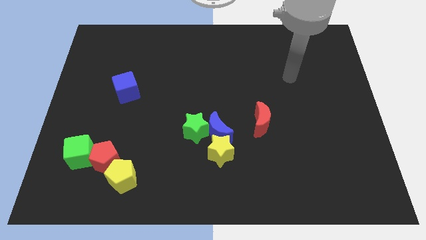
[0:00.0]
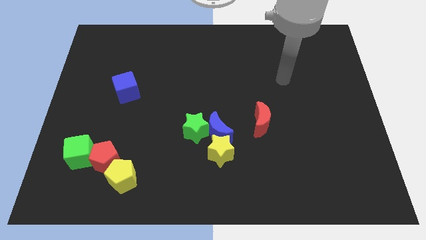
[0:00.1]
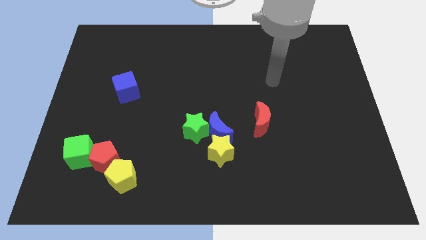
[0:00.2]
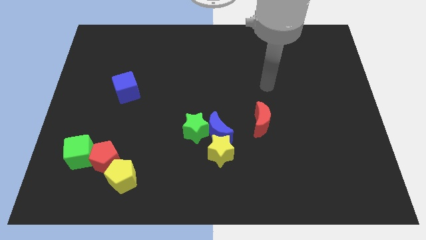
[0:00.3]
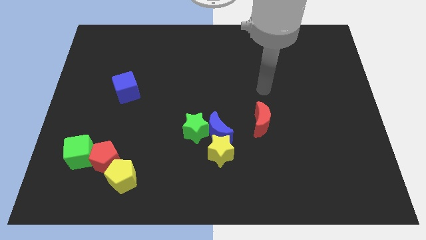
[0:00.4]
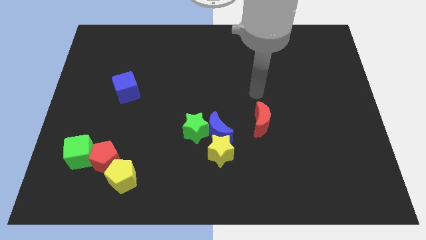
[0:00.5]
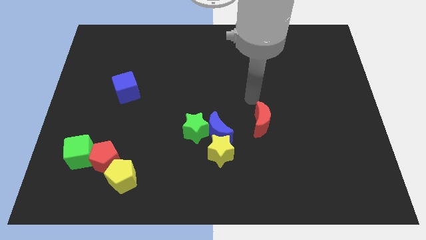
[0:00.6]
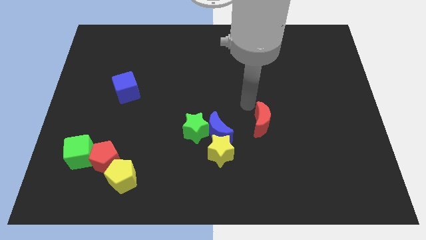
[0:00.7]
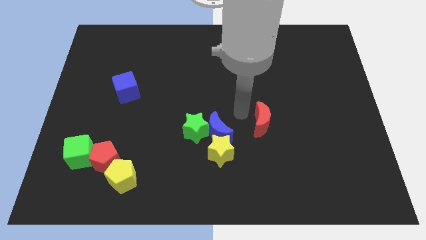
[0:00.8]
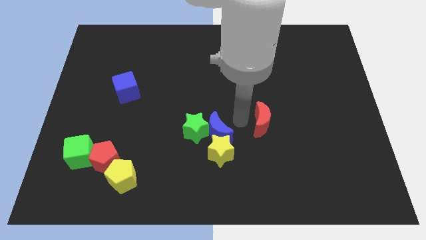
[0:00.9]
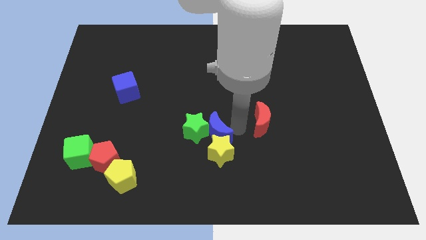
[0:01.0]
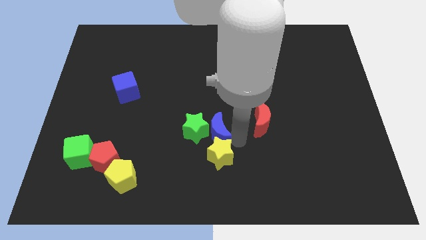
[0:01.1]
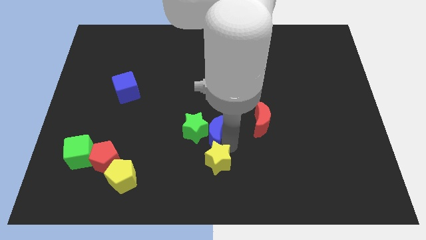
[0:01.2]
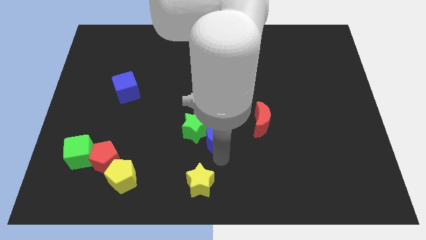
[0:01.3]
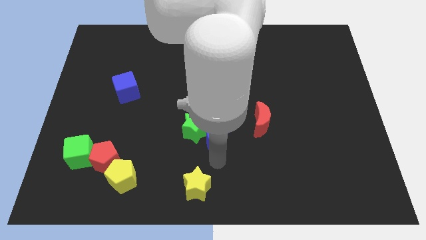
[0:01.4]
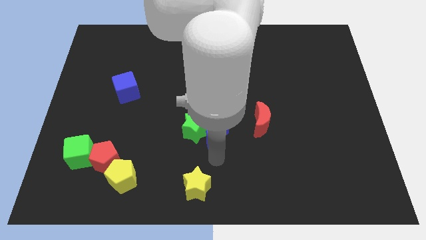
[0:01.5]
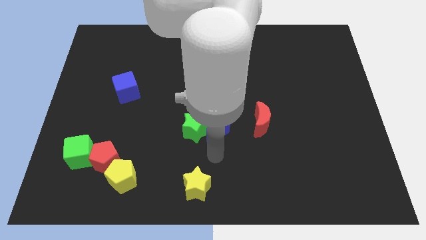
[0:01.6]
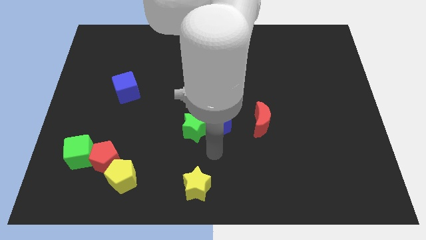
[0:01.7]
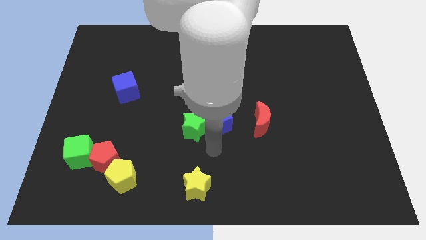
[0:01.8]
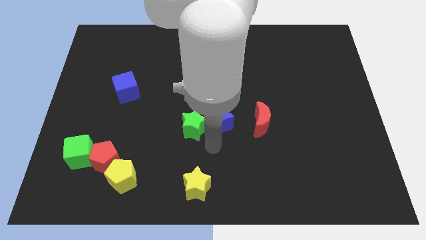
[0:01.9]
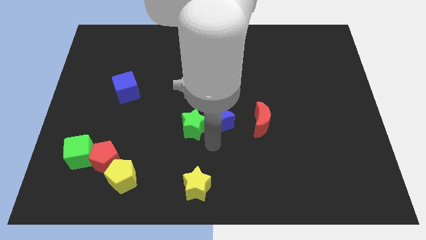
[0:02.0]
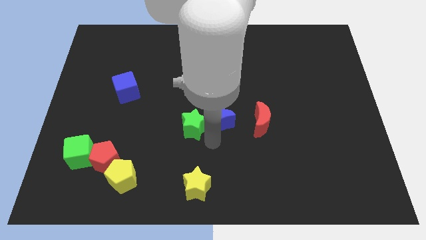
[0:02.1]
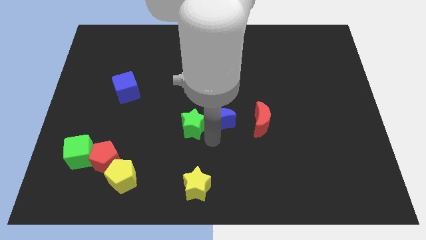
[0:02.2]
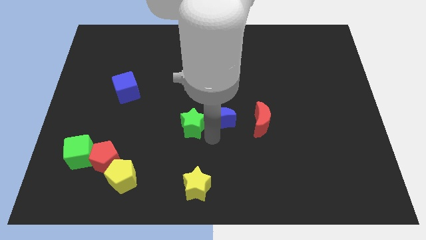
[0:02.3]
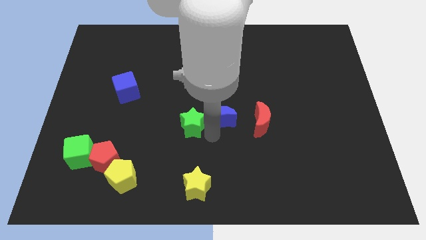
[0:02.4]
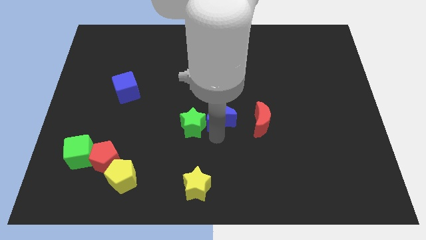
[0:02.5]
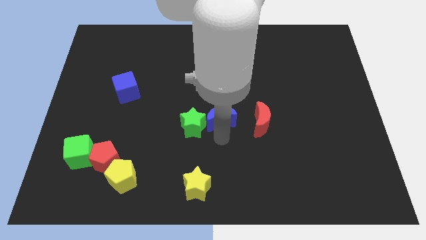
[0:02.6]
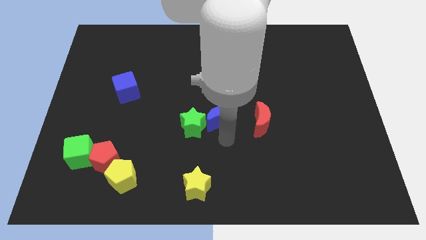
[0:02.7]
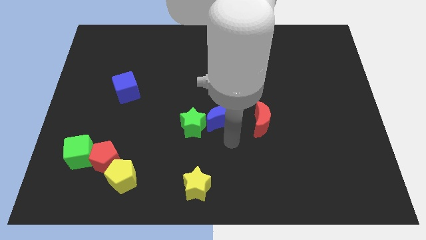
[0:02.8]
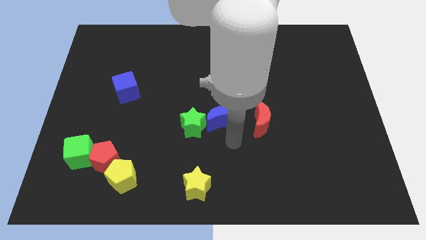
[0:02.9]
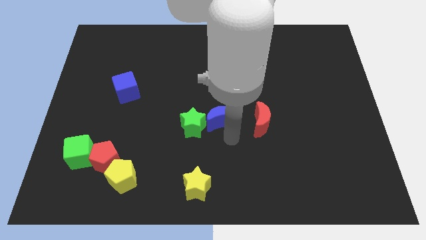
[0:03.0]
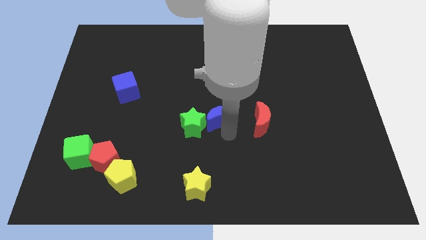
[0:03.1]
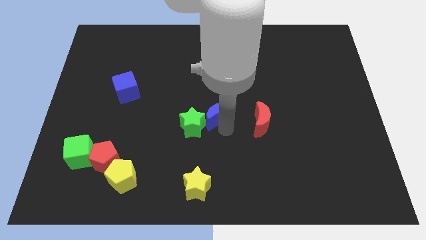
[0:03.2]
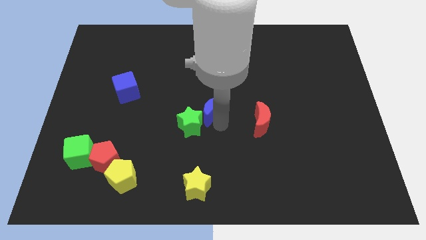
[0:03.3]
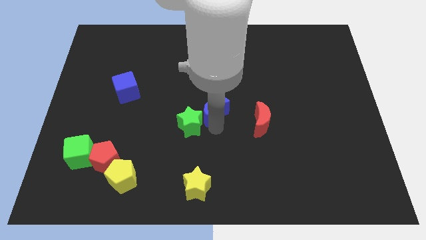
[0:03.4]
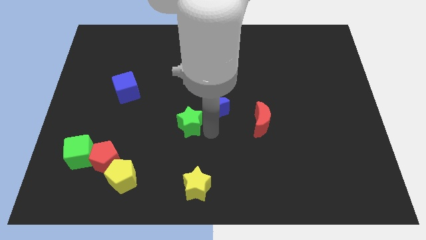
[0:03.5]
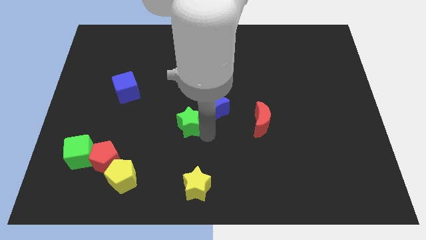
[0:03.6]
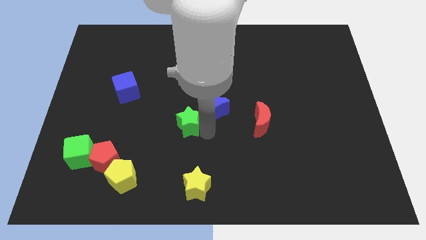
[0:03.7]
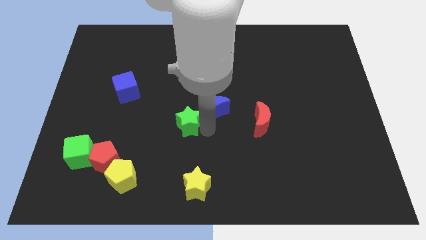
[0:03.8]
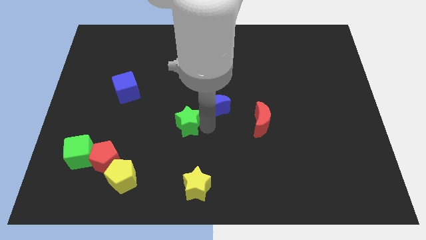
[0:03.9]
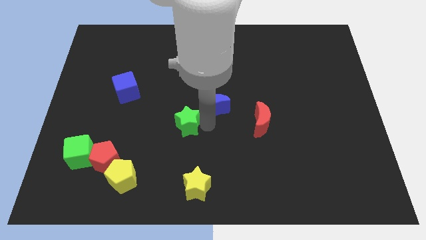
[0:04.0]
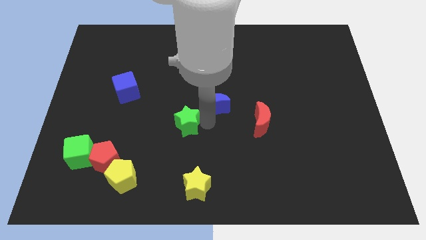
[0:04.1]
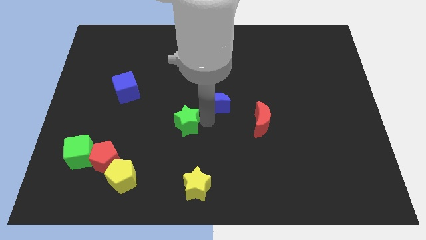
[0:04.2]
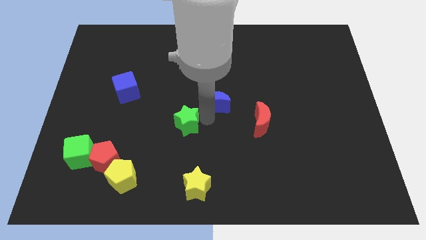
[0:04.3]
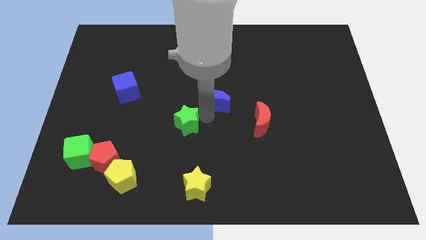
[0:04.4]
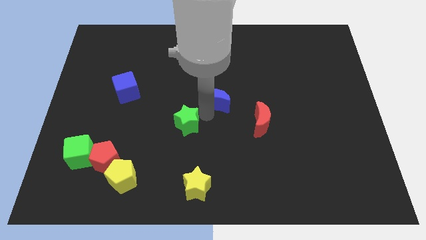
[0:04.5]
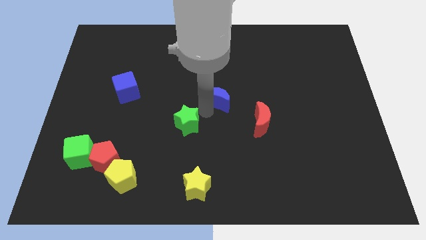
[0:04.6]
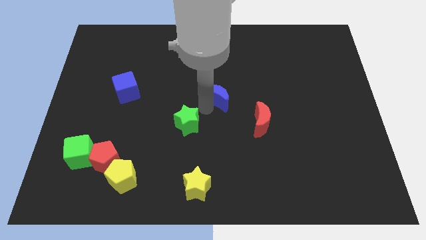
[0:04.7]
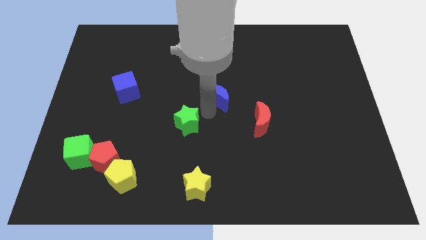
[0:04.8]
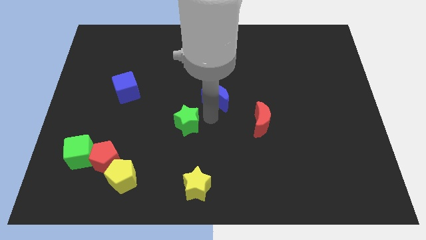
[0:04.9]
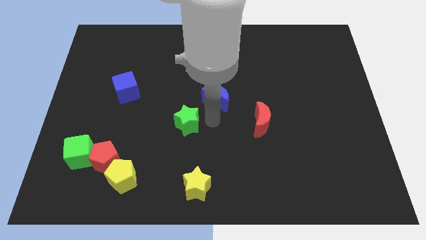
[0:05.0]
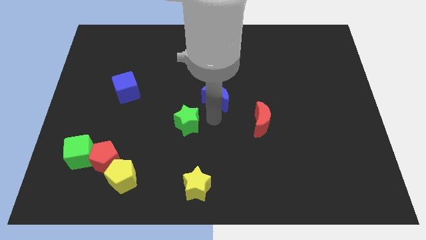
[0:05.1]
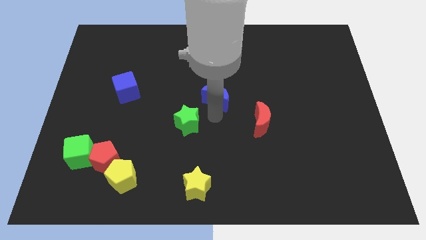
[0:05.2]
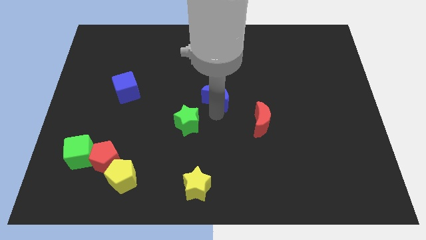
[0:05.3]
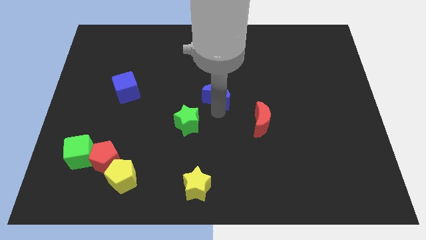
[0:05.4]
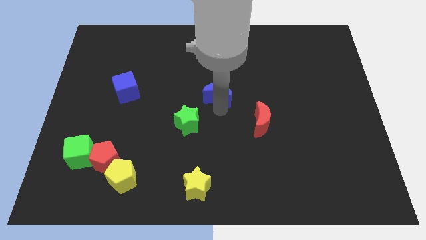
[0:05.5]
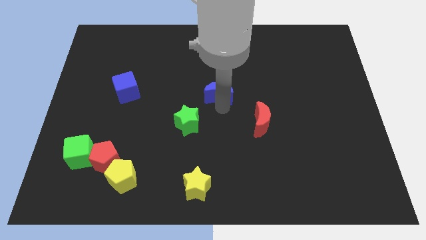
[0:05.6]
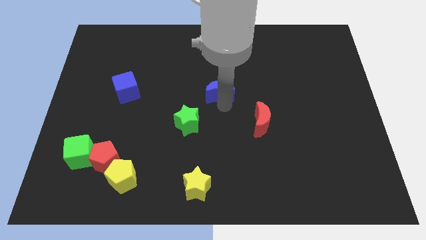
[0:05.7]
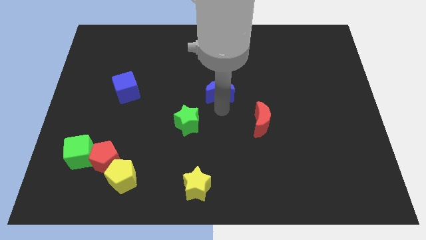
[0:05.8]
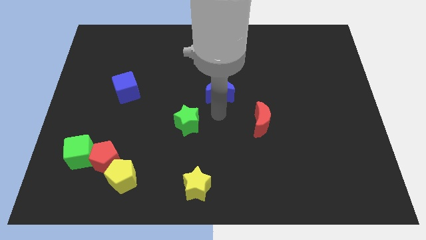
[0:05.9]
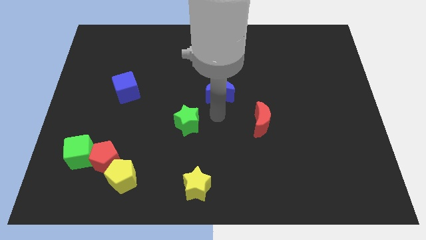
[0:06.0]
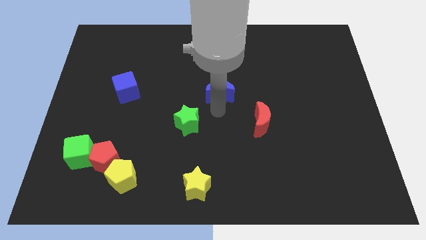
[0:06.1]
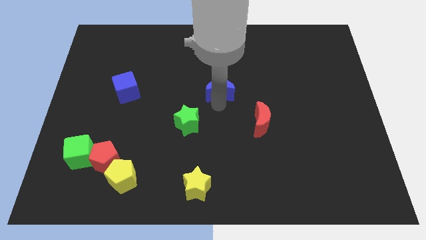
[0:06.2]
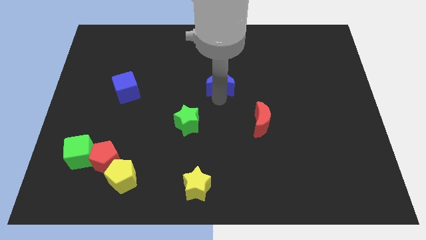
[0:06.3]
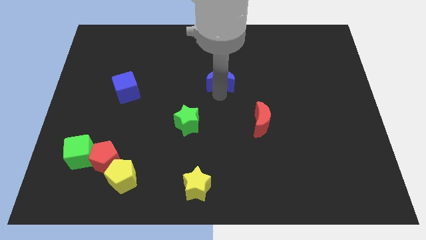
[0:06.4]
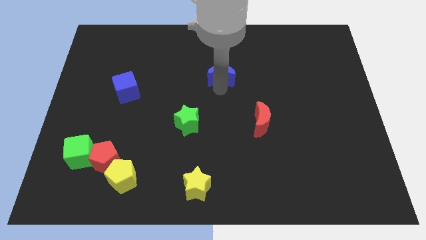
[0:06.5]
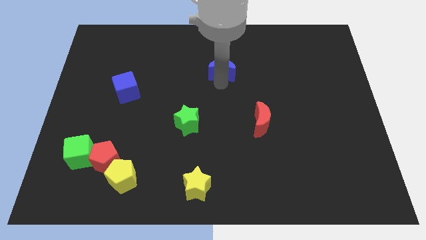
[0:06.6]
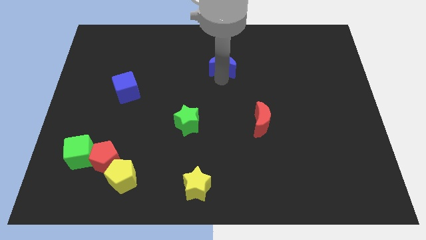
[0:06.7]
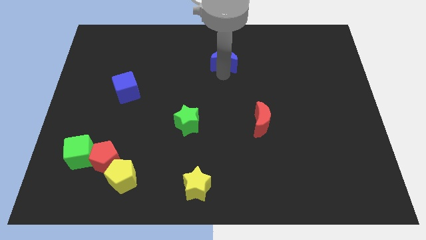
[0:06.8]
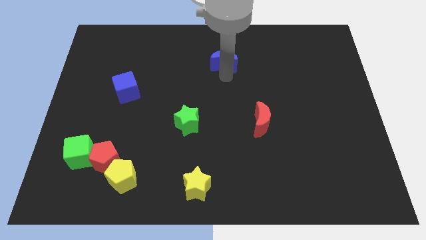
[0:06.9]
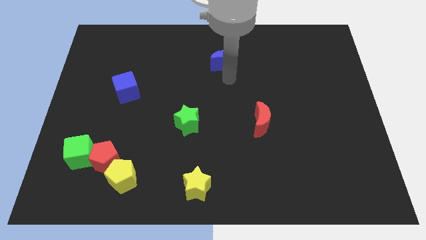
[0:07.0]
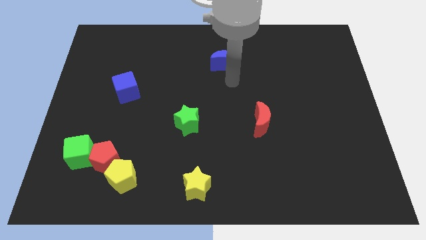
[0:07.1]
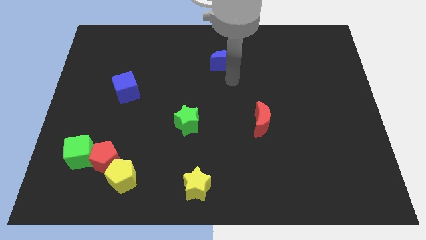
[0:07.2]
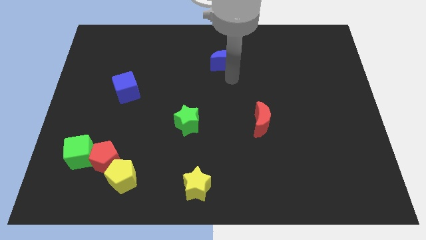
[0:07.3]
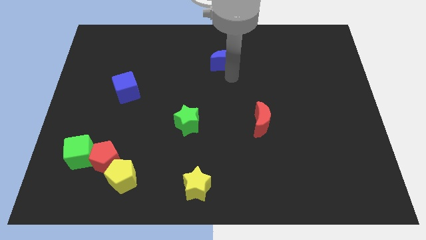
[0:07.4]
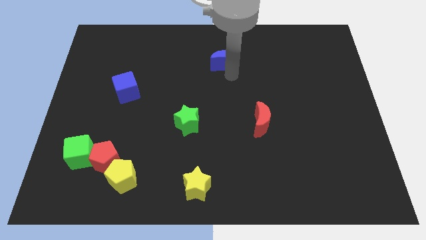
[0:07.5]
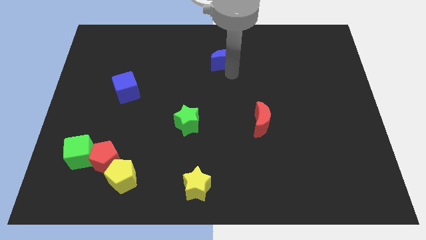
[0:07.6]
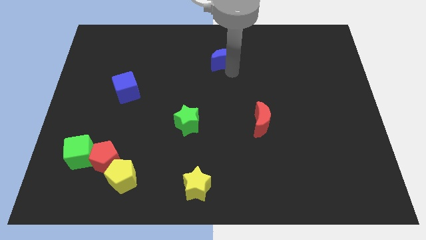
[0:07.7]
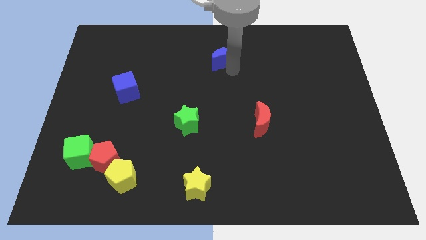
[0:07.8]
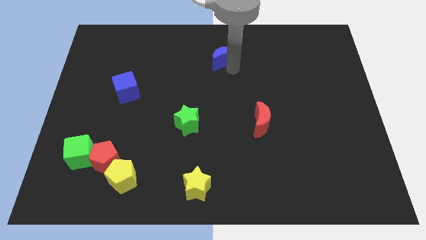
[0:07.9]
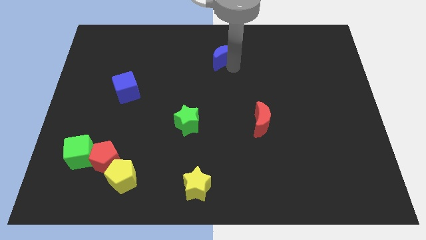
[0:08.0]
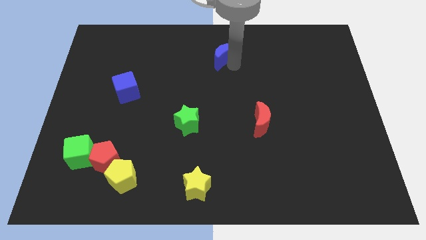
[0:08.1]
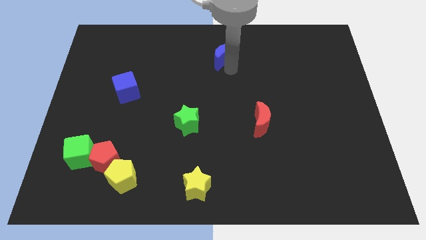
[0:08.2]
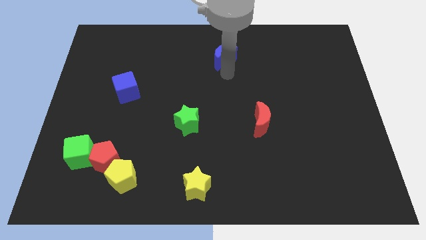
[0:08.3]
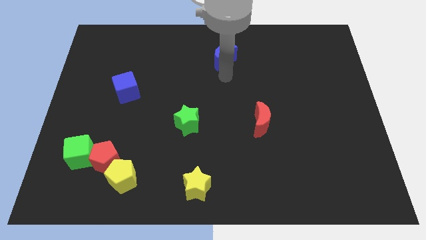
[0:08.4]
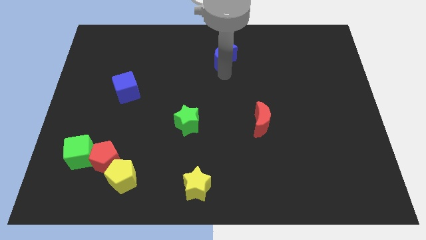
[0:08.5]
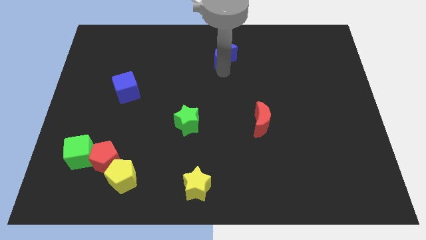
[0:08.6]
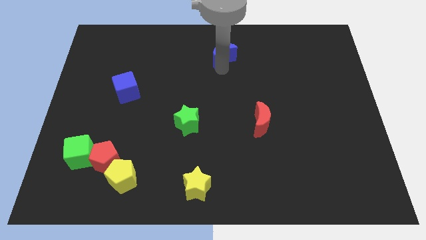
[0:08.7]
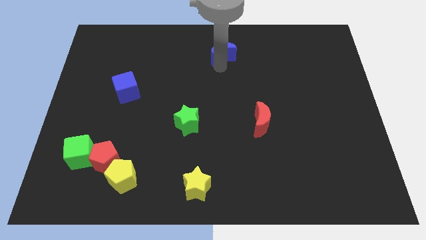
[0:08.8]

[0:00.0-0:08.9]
put the blue moon to the top side
